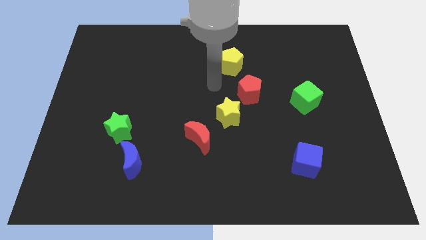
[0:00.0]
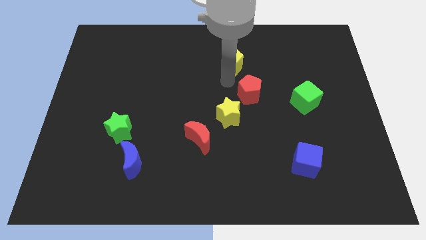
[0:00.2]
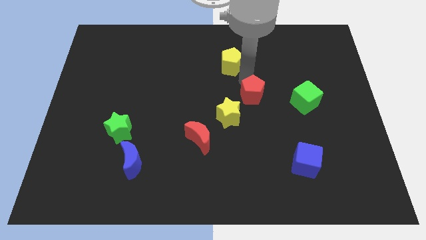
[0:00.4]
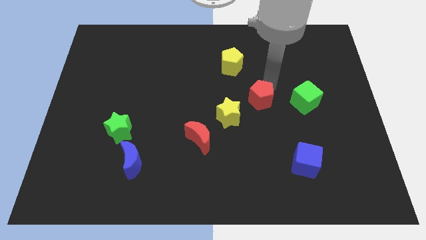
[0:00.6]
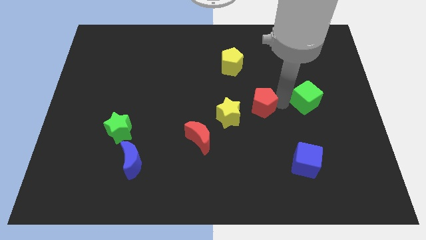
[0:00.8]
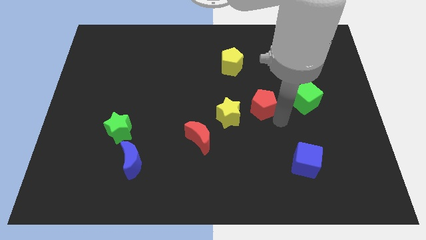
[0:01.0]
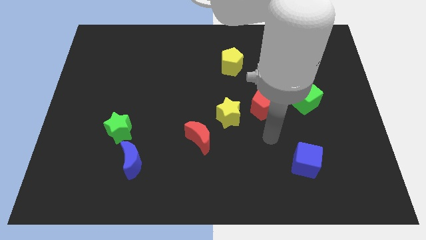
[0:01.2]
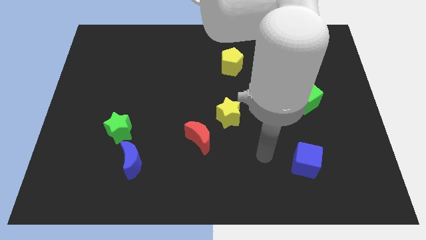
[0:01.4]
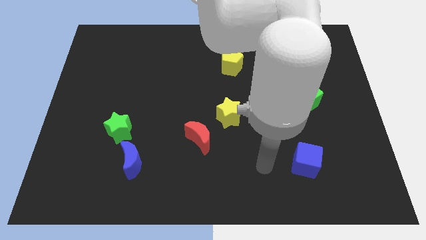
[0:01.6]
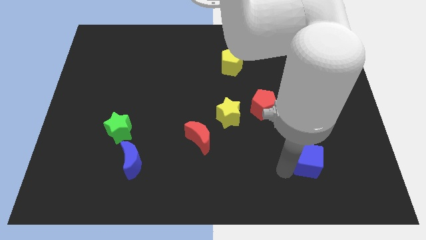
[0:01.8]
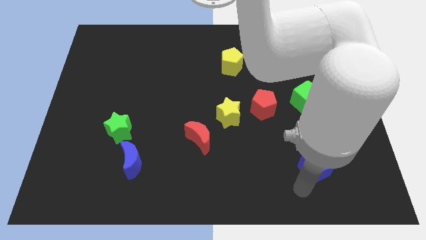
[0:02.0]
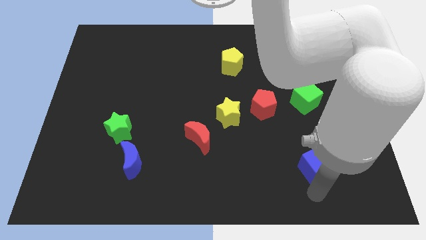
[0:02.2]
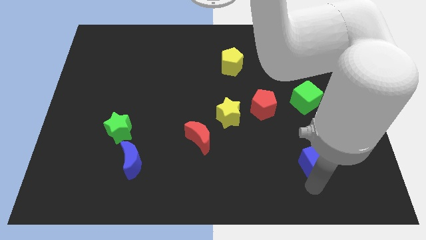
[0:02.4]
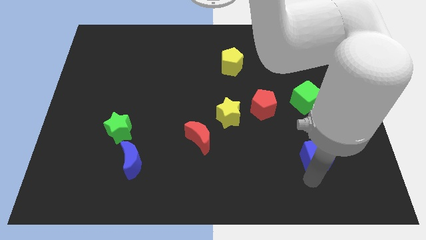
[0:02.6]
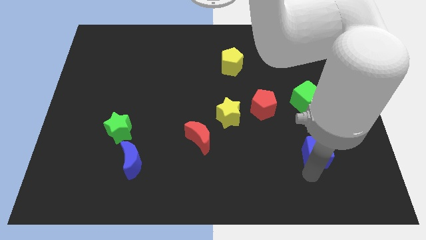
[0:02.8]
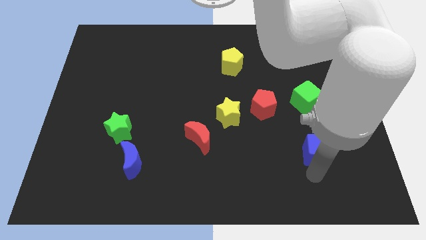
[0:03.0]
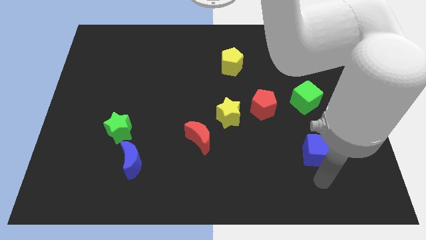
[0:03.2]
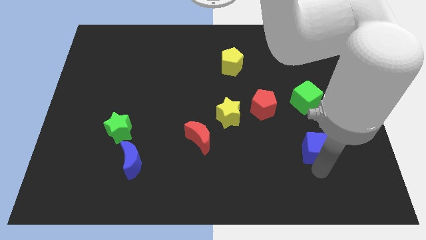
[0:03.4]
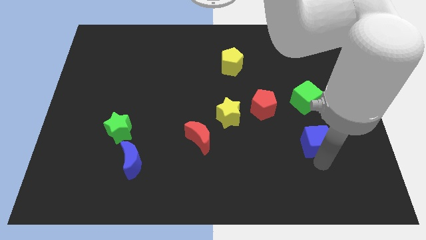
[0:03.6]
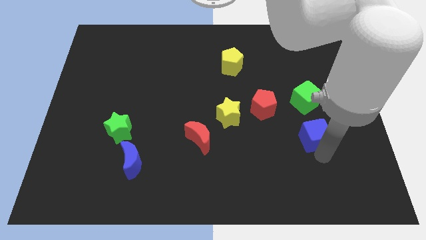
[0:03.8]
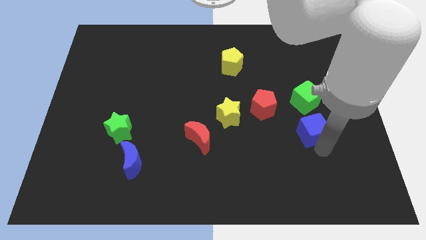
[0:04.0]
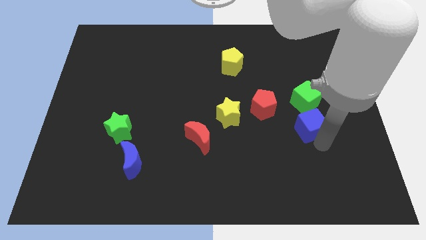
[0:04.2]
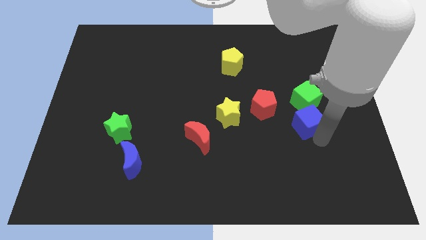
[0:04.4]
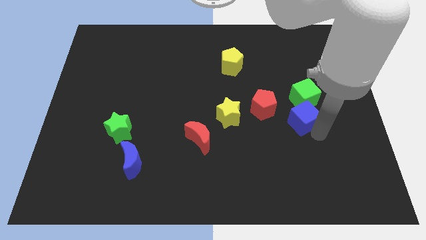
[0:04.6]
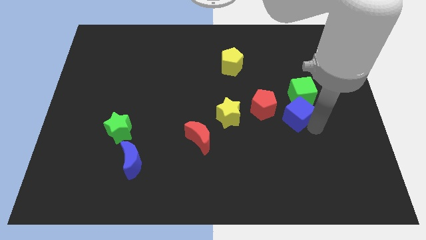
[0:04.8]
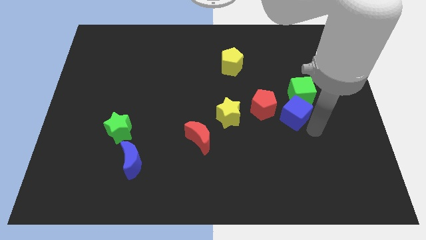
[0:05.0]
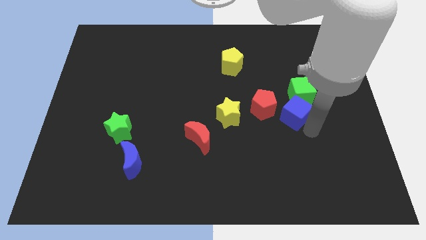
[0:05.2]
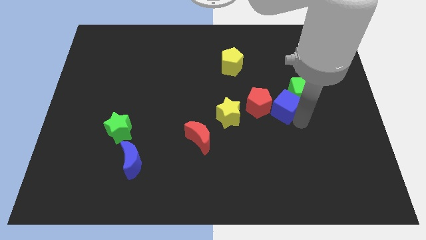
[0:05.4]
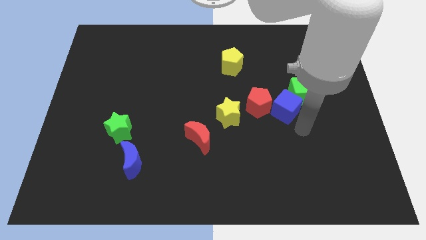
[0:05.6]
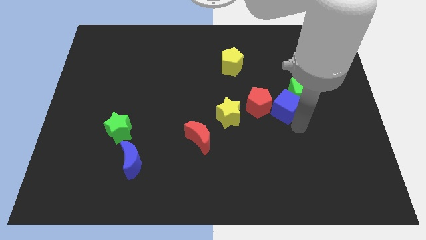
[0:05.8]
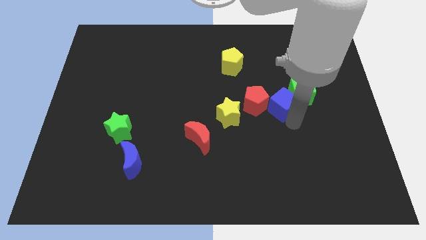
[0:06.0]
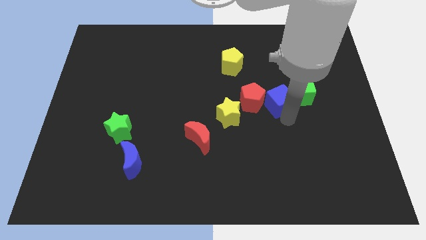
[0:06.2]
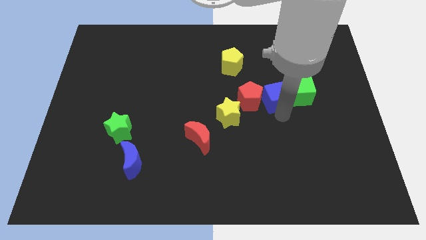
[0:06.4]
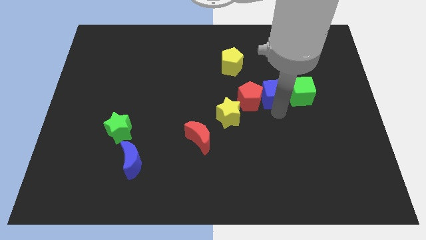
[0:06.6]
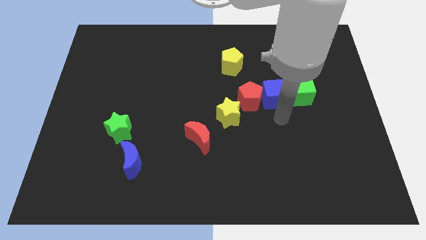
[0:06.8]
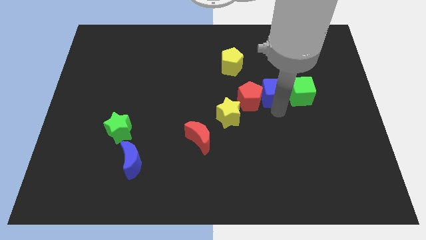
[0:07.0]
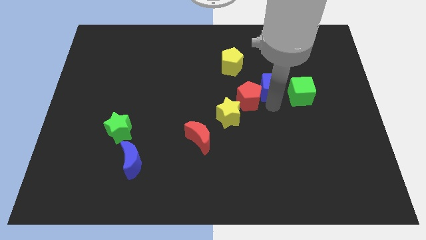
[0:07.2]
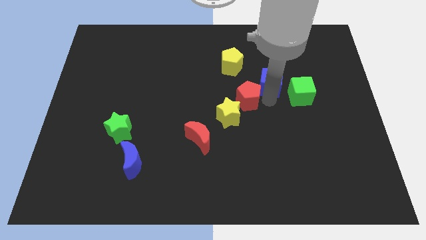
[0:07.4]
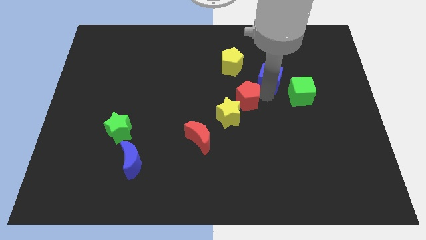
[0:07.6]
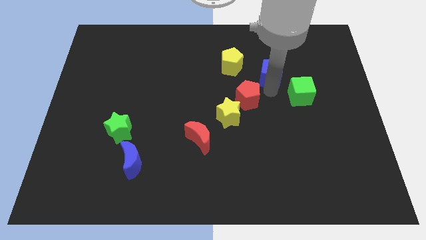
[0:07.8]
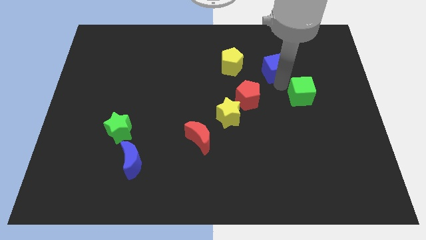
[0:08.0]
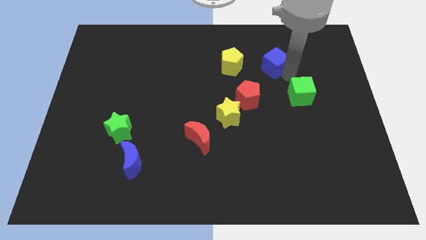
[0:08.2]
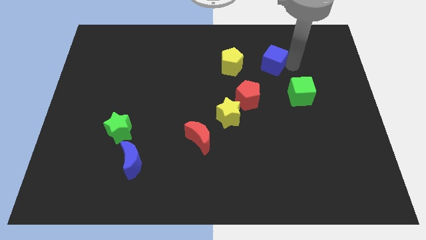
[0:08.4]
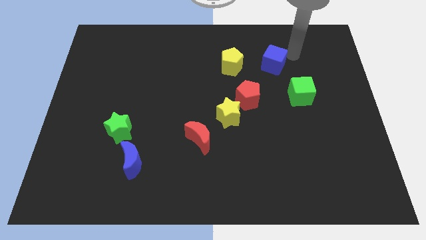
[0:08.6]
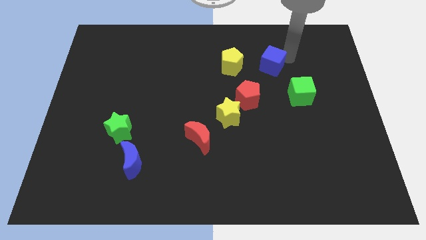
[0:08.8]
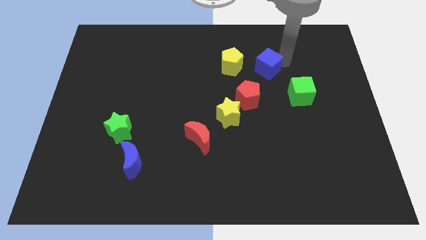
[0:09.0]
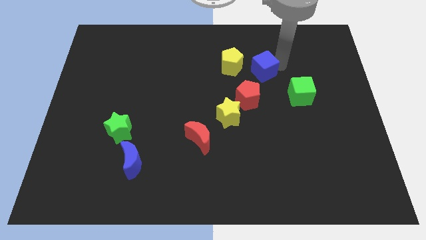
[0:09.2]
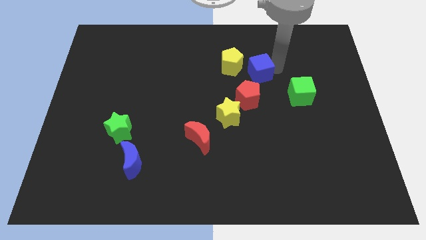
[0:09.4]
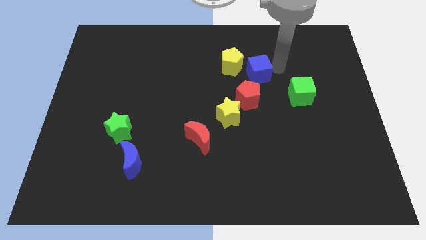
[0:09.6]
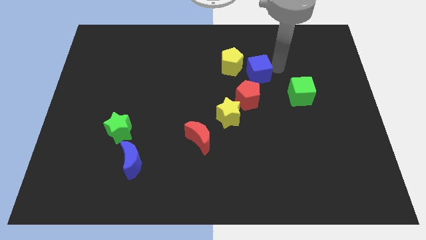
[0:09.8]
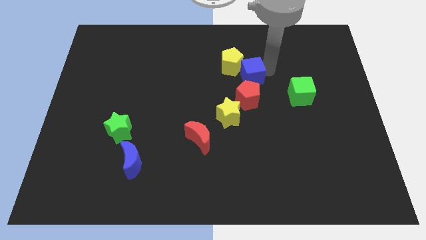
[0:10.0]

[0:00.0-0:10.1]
slide the blue cube close to the yellow pentagon

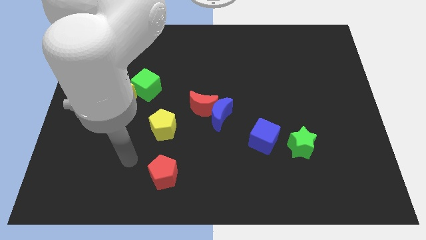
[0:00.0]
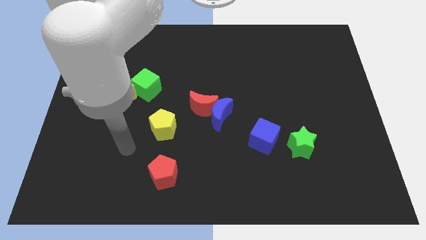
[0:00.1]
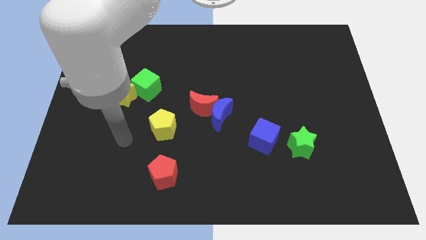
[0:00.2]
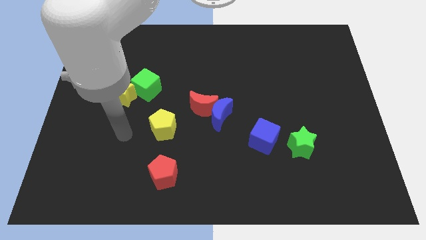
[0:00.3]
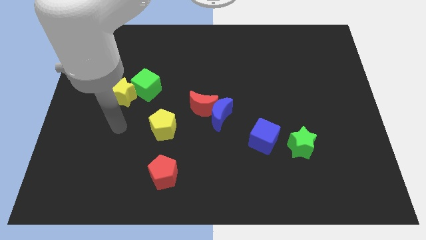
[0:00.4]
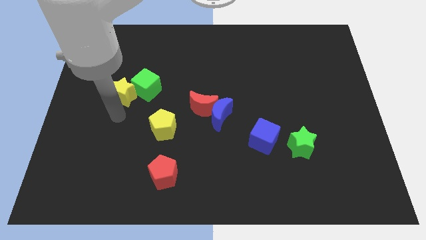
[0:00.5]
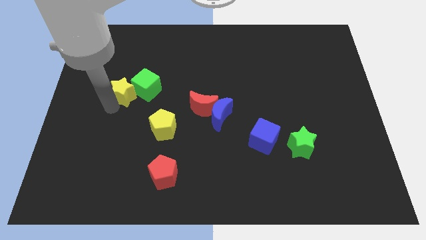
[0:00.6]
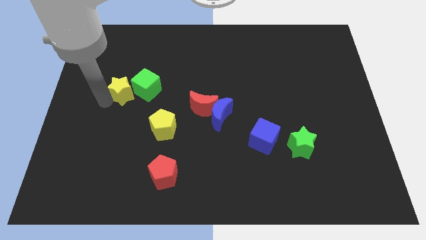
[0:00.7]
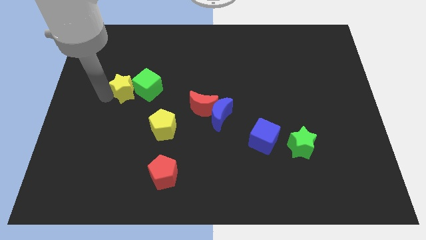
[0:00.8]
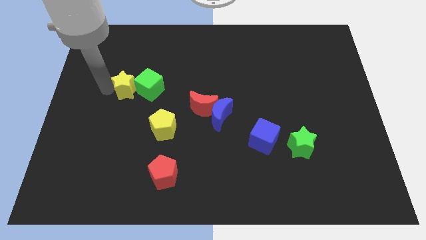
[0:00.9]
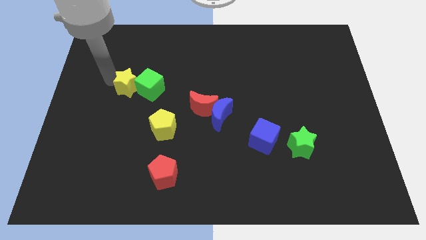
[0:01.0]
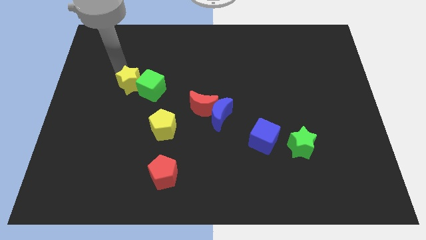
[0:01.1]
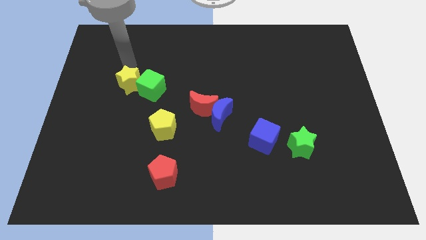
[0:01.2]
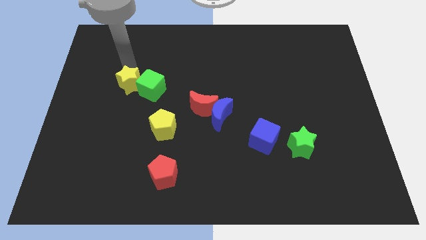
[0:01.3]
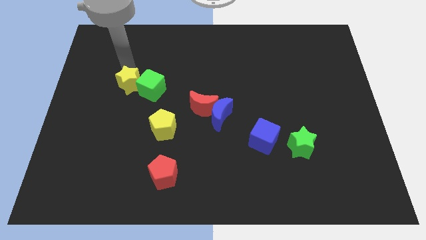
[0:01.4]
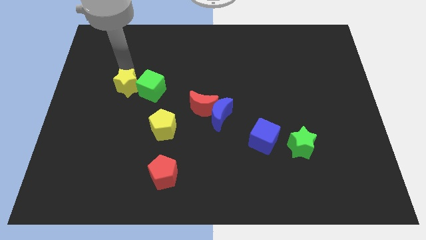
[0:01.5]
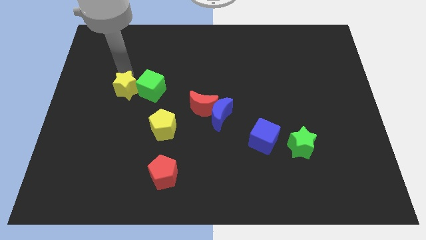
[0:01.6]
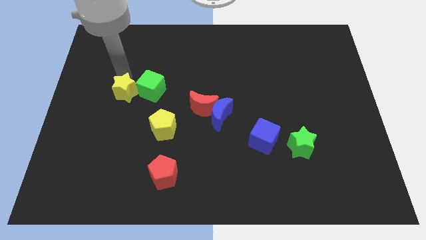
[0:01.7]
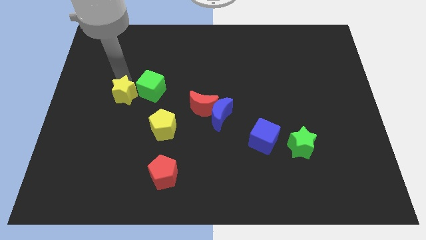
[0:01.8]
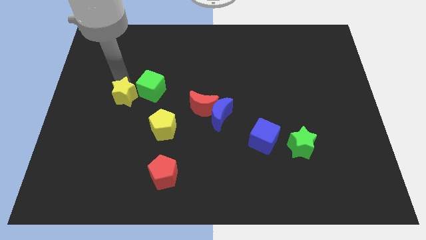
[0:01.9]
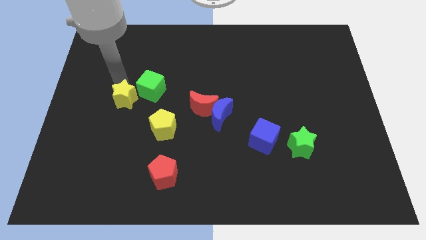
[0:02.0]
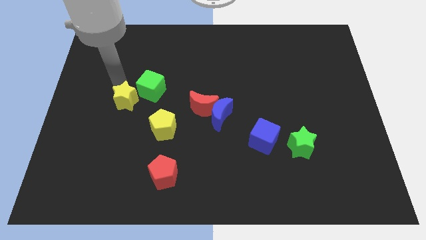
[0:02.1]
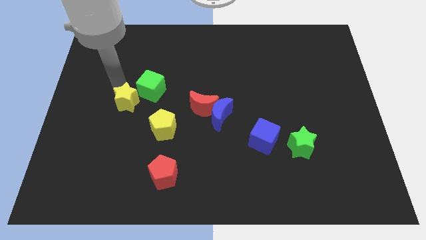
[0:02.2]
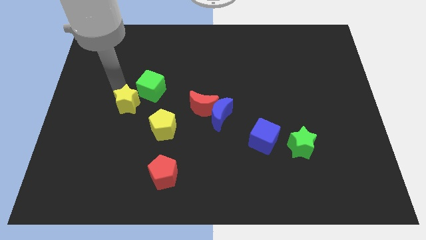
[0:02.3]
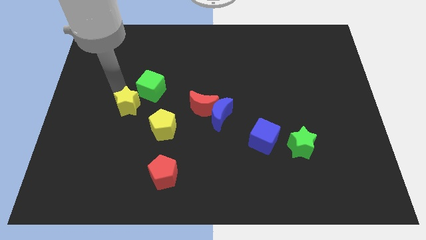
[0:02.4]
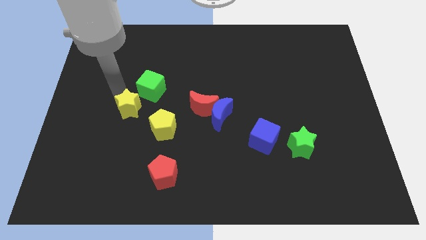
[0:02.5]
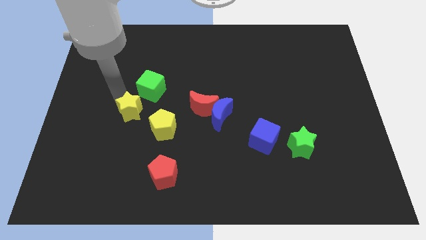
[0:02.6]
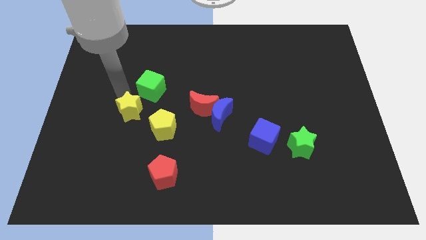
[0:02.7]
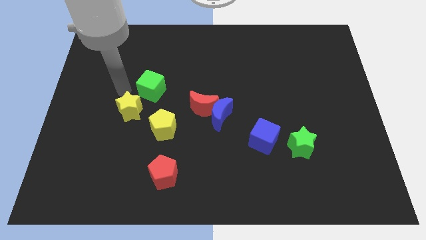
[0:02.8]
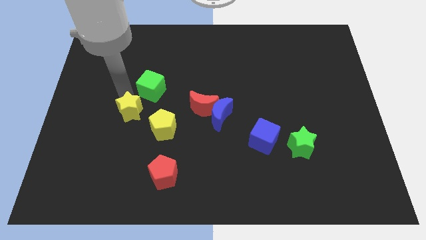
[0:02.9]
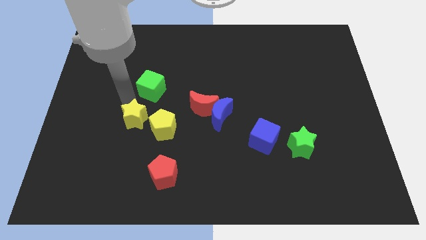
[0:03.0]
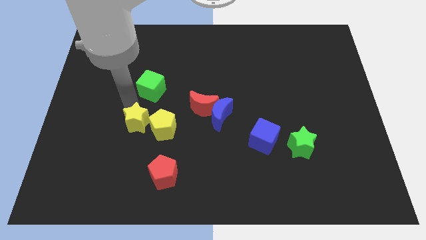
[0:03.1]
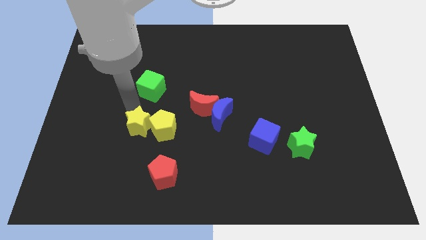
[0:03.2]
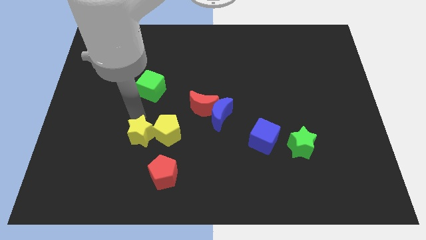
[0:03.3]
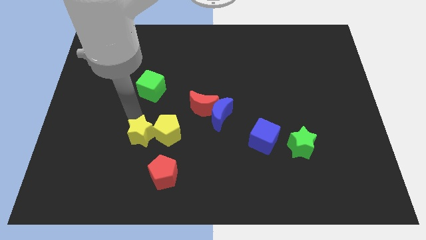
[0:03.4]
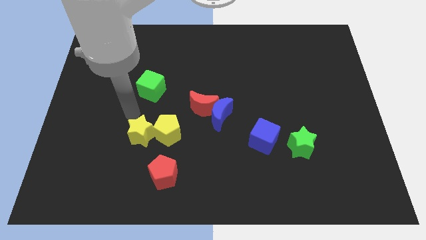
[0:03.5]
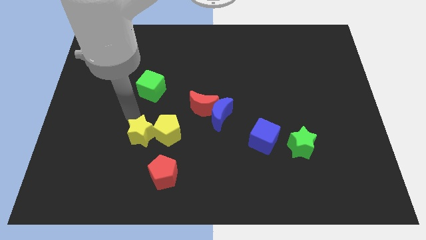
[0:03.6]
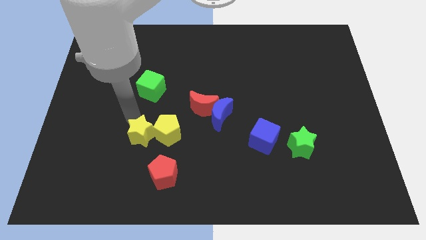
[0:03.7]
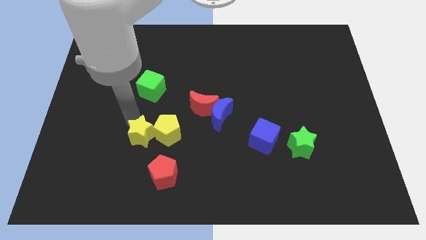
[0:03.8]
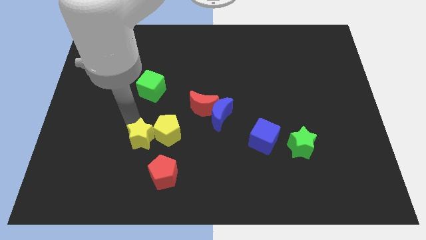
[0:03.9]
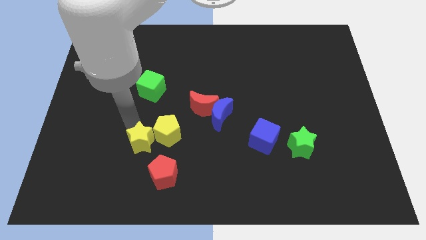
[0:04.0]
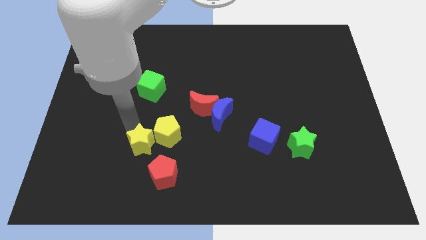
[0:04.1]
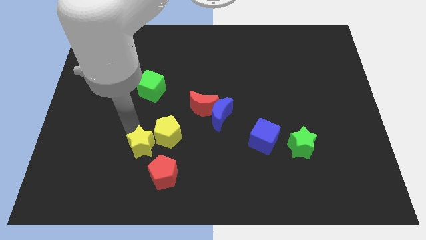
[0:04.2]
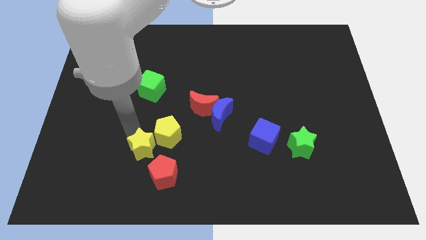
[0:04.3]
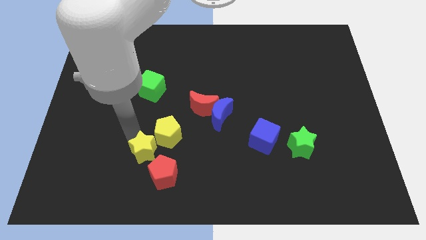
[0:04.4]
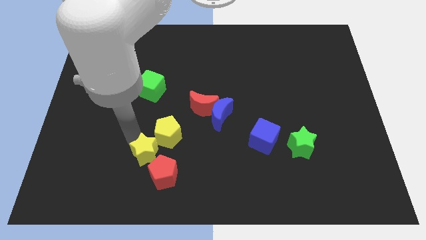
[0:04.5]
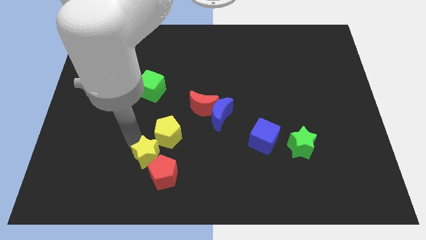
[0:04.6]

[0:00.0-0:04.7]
move the yellow star towards the red pentagon
